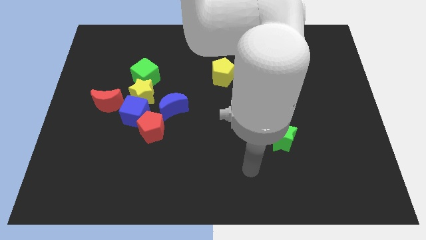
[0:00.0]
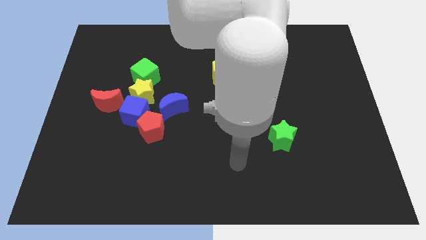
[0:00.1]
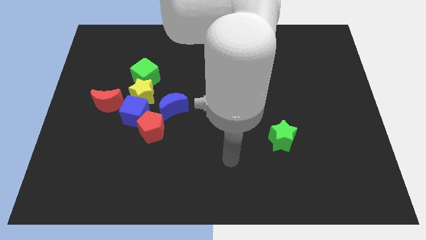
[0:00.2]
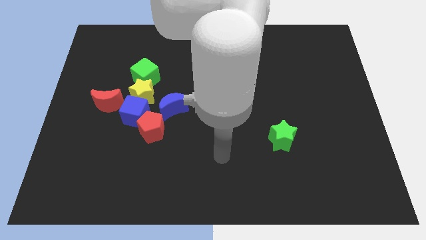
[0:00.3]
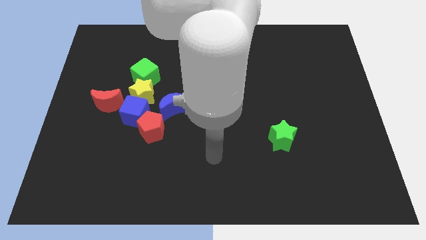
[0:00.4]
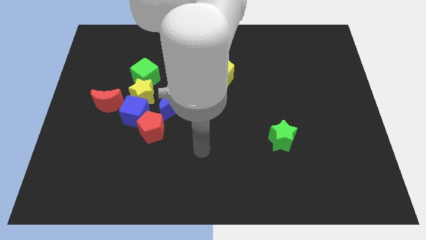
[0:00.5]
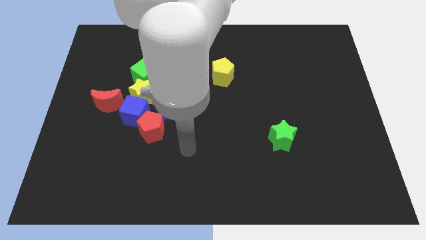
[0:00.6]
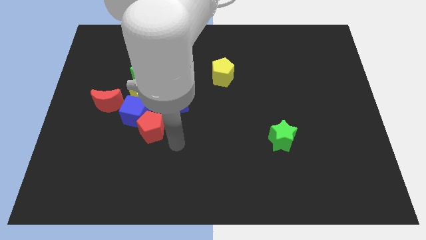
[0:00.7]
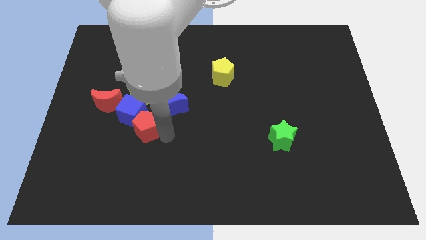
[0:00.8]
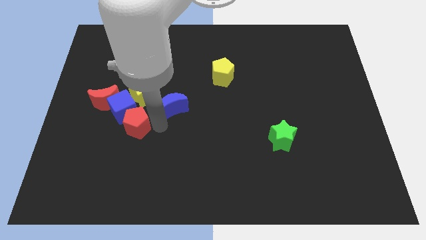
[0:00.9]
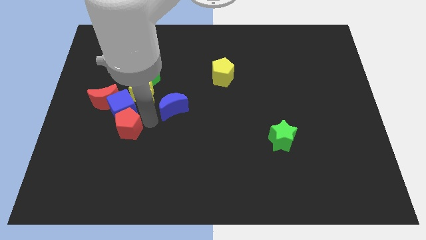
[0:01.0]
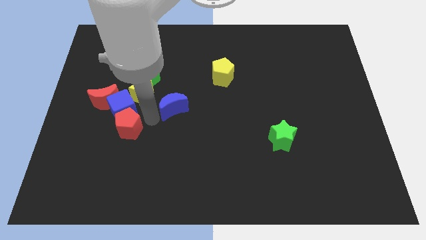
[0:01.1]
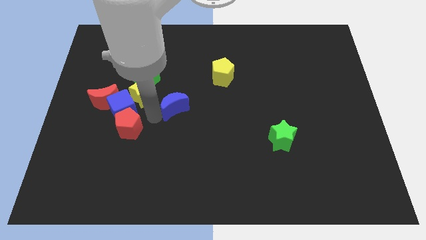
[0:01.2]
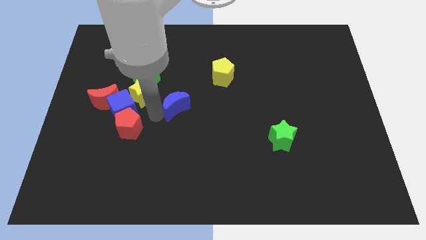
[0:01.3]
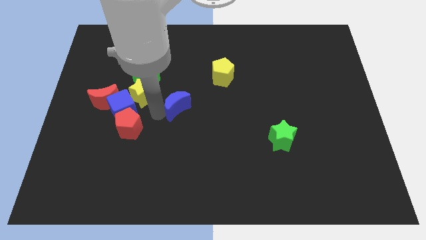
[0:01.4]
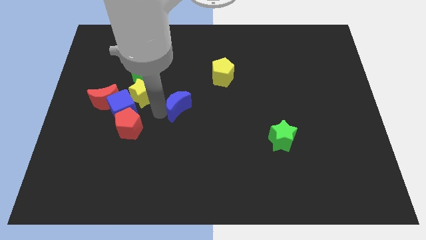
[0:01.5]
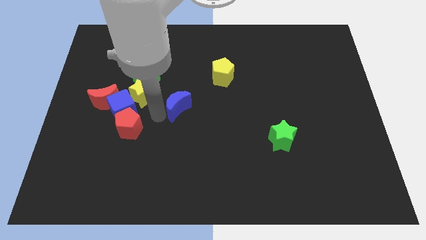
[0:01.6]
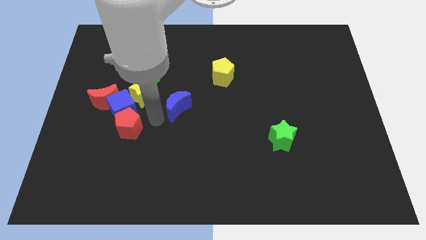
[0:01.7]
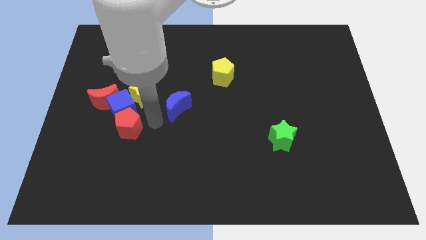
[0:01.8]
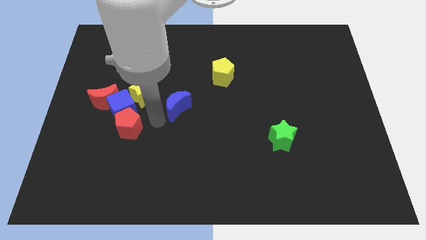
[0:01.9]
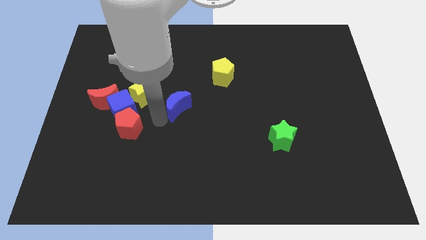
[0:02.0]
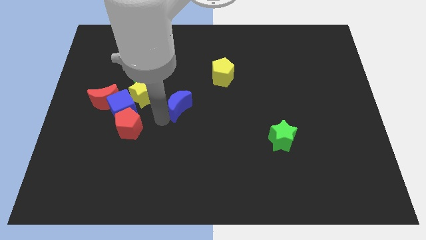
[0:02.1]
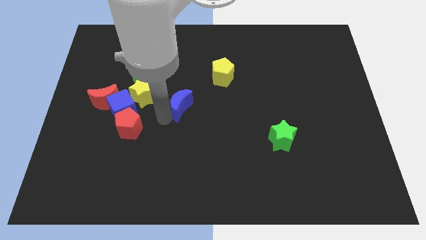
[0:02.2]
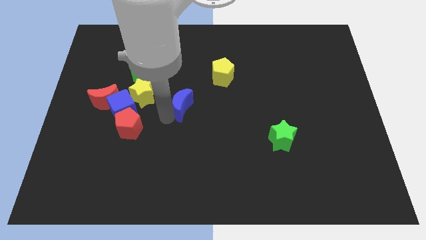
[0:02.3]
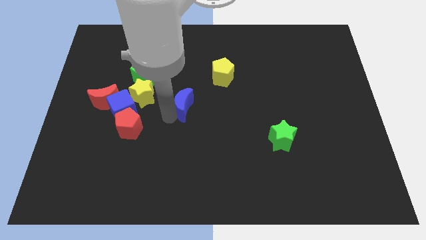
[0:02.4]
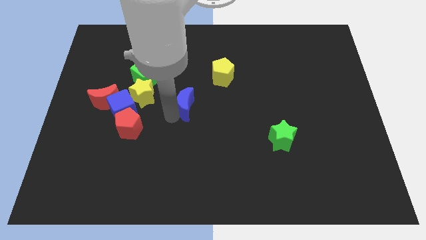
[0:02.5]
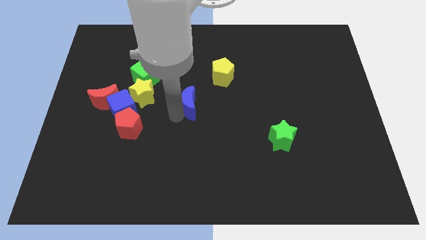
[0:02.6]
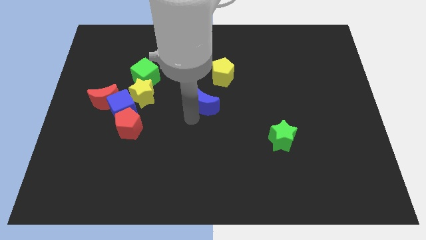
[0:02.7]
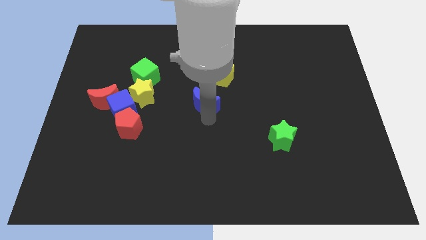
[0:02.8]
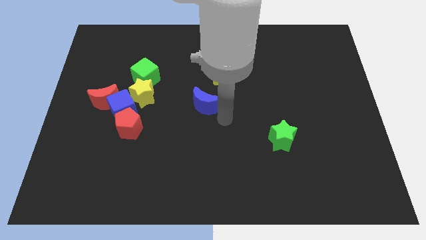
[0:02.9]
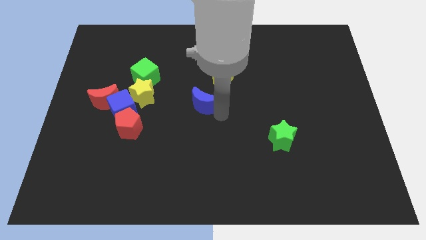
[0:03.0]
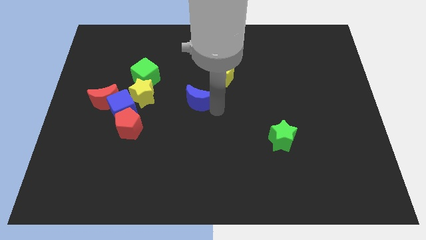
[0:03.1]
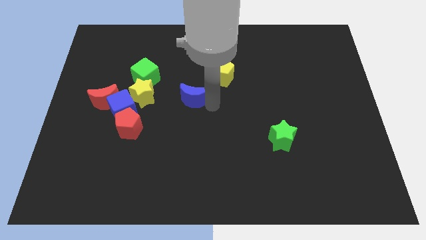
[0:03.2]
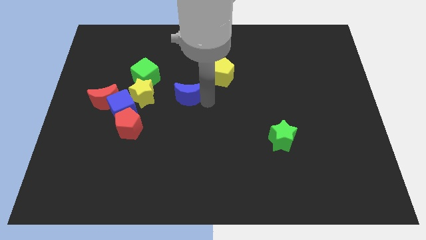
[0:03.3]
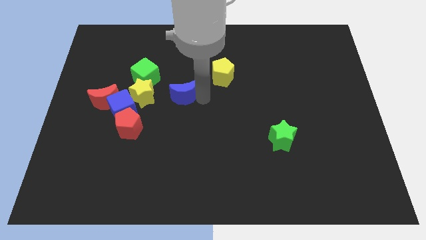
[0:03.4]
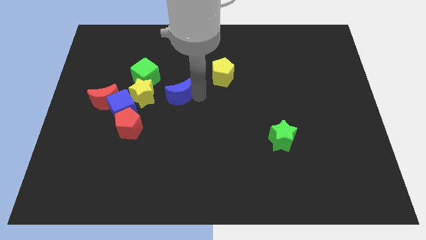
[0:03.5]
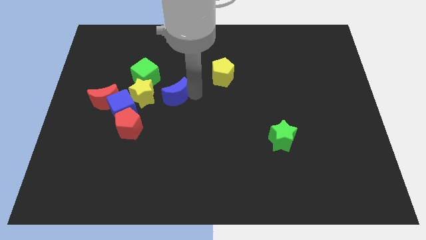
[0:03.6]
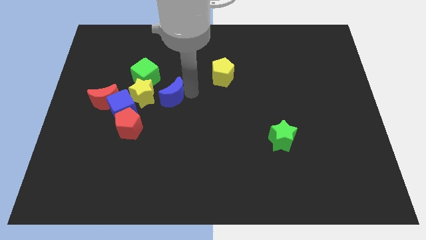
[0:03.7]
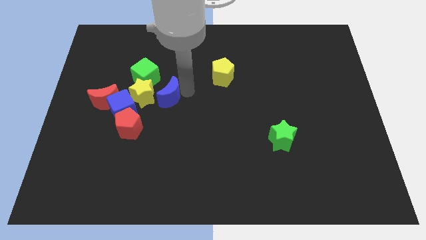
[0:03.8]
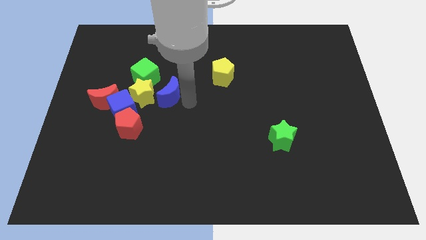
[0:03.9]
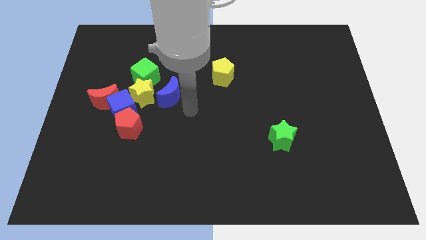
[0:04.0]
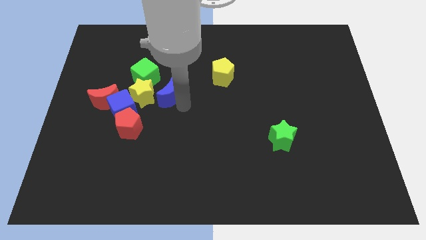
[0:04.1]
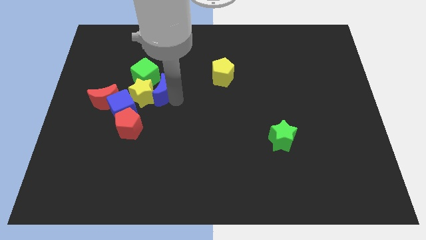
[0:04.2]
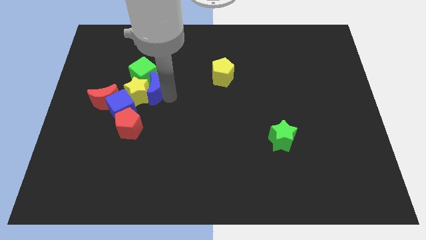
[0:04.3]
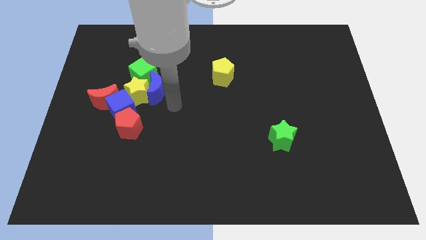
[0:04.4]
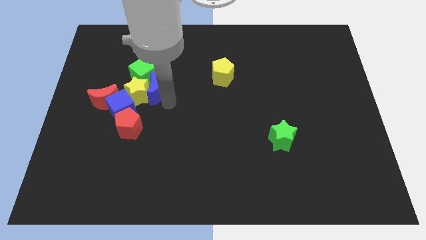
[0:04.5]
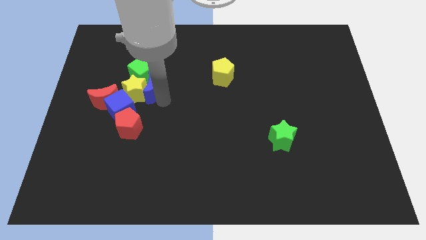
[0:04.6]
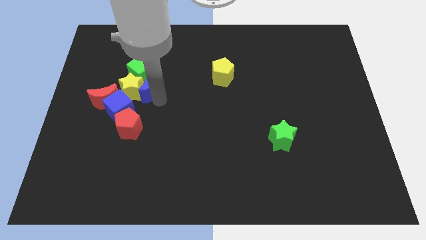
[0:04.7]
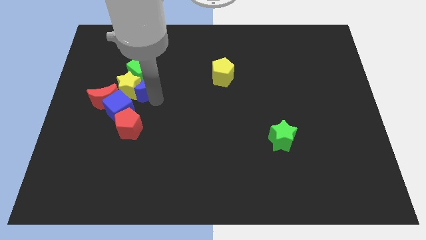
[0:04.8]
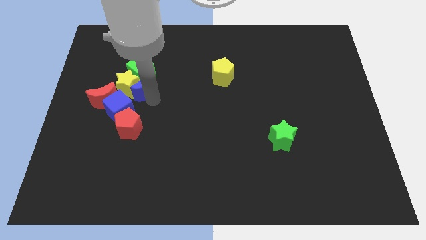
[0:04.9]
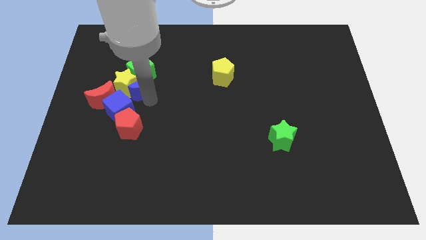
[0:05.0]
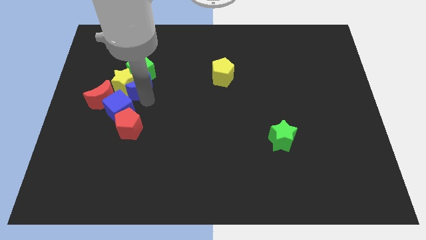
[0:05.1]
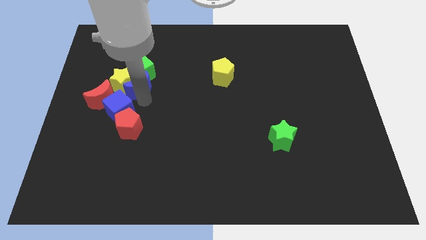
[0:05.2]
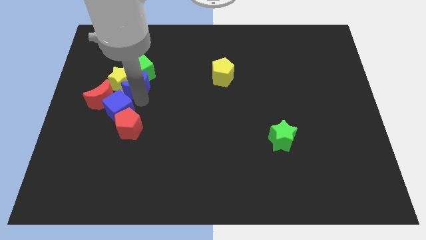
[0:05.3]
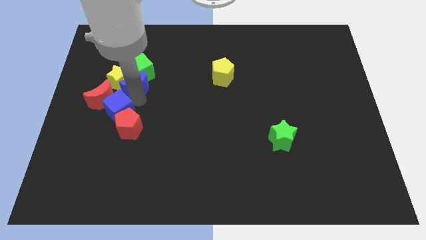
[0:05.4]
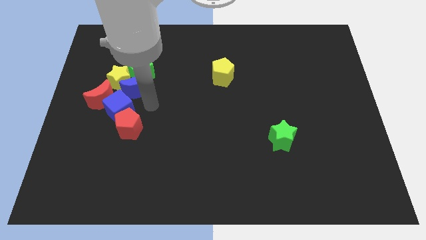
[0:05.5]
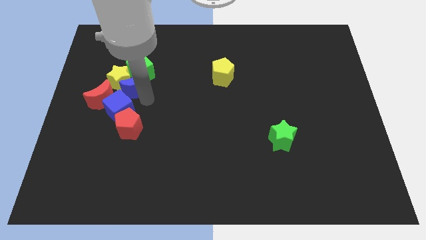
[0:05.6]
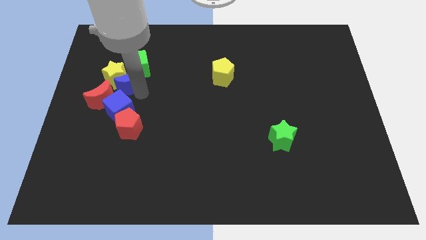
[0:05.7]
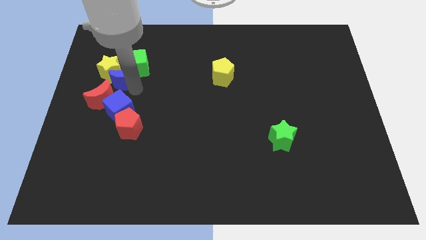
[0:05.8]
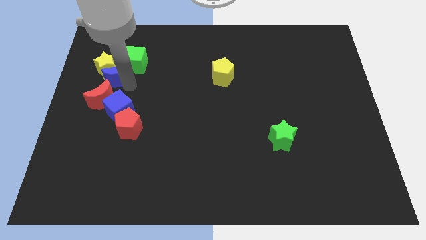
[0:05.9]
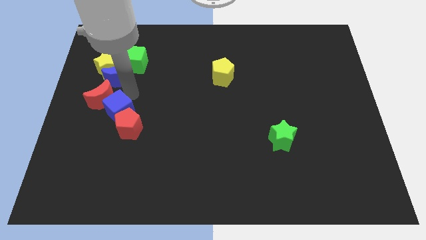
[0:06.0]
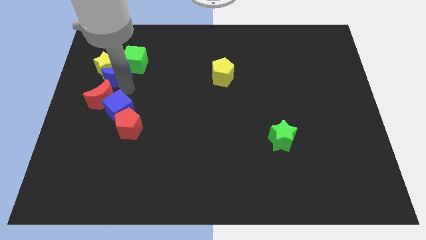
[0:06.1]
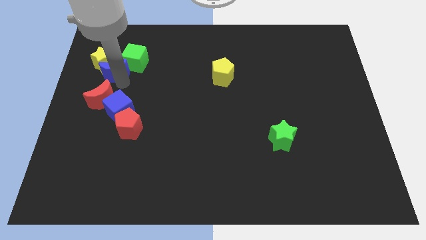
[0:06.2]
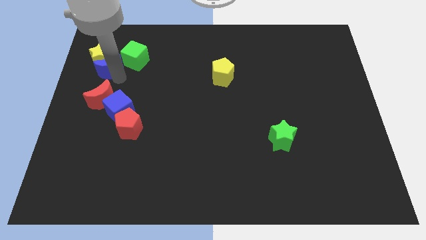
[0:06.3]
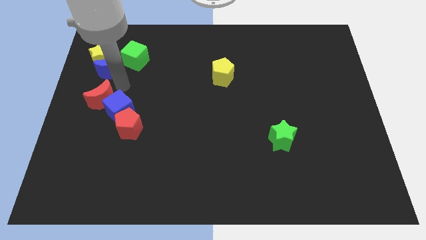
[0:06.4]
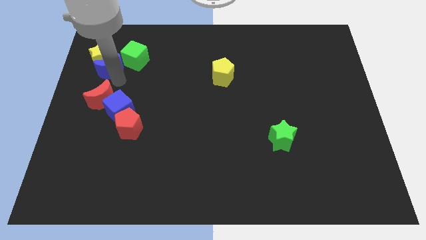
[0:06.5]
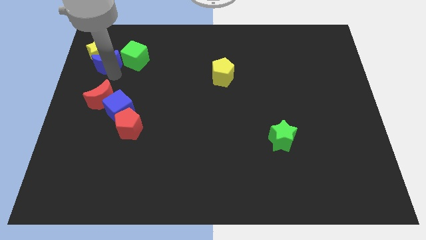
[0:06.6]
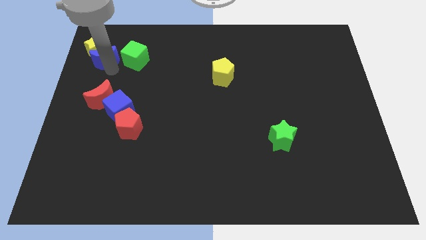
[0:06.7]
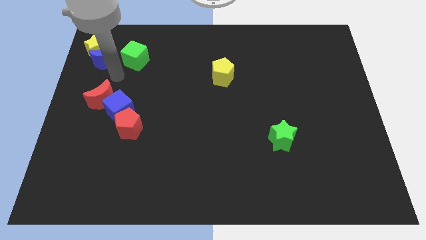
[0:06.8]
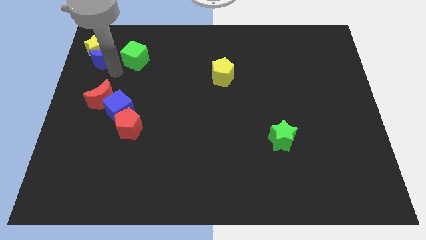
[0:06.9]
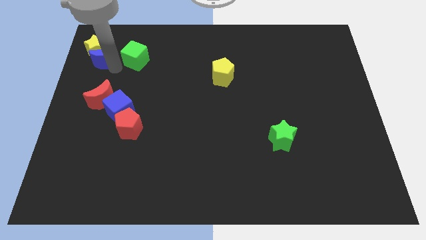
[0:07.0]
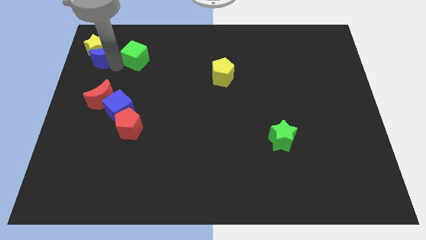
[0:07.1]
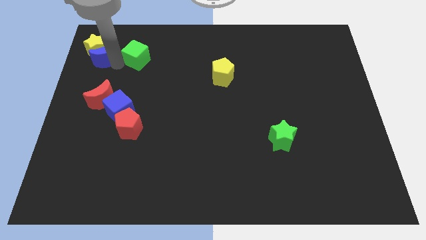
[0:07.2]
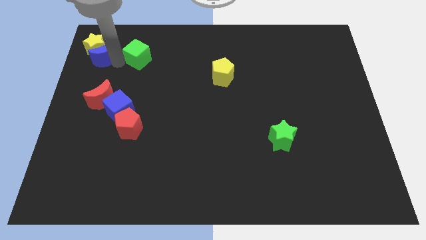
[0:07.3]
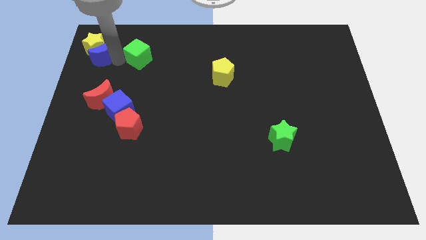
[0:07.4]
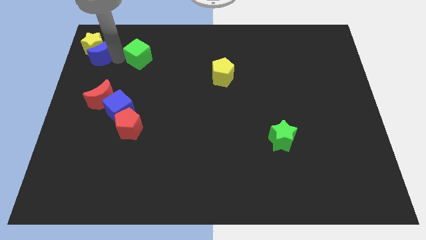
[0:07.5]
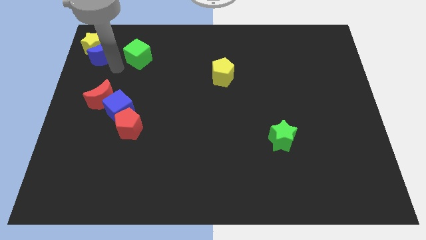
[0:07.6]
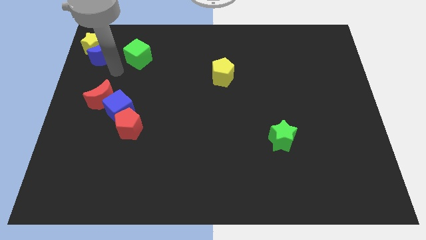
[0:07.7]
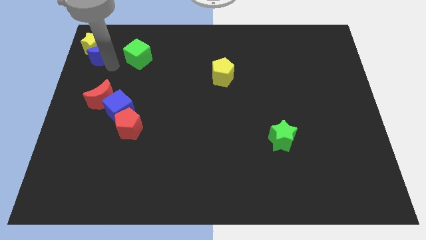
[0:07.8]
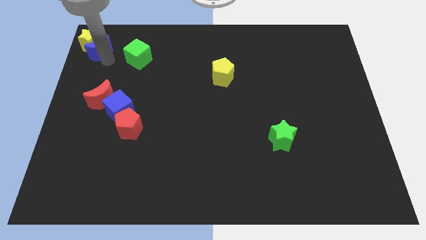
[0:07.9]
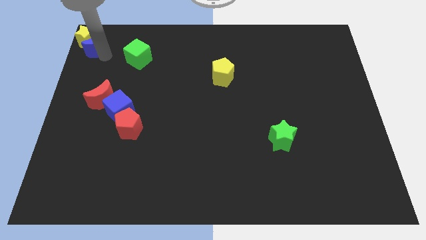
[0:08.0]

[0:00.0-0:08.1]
move the blue moon to the top left of the board
